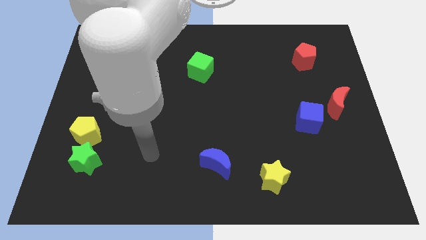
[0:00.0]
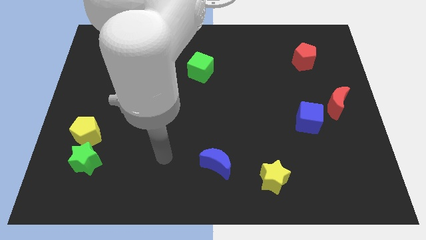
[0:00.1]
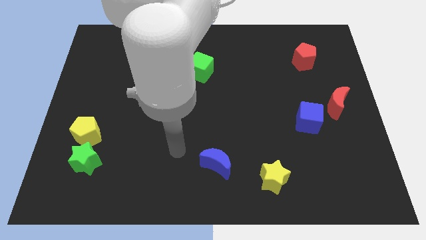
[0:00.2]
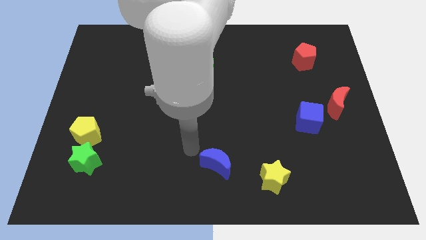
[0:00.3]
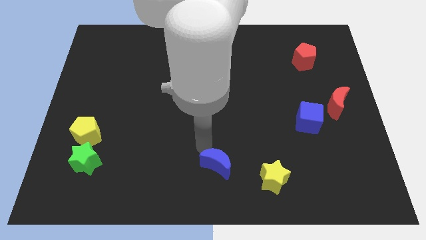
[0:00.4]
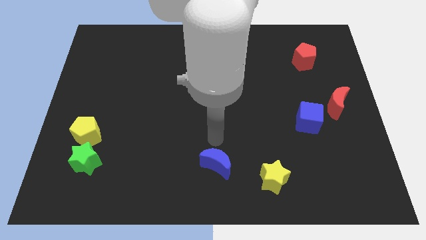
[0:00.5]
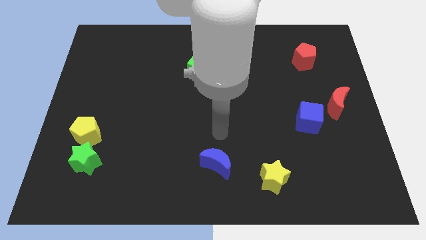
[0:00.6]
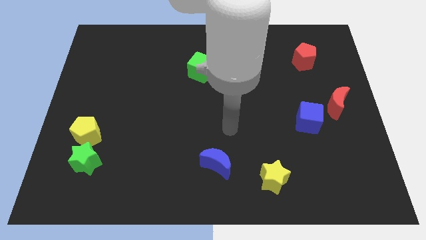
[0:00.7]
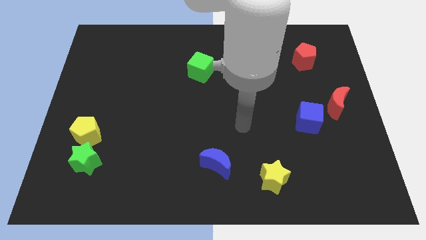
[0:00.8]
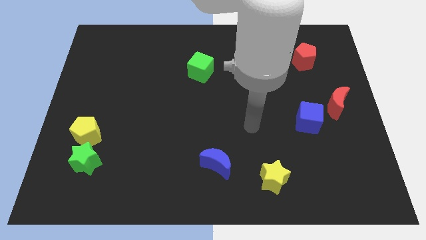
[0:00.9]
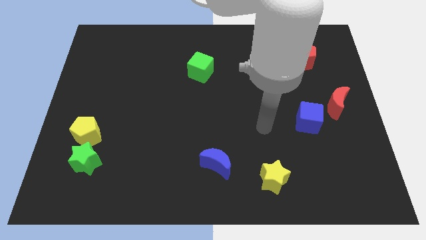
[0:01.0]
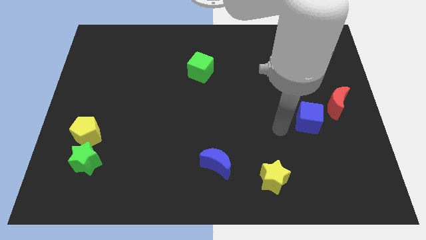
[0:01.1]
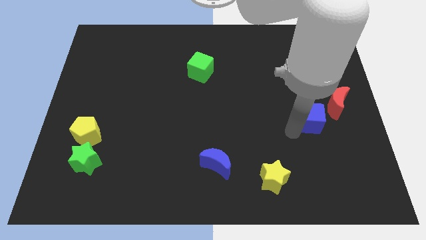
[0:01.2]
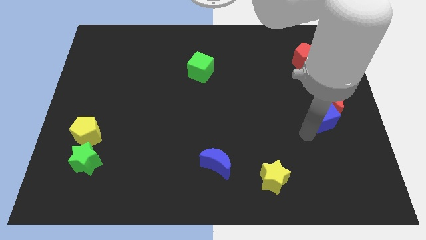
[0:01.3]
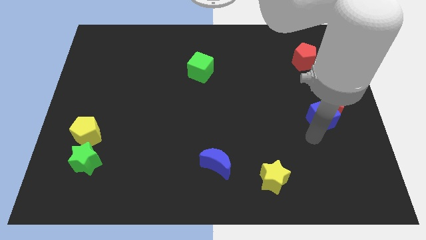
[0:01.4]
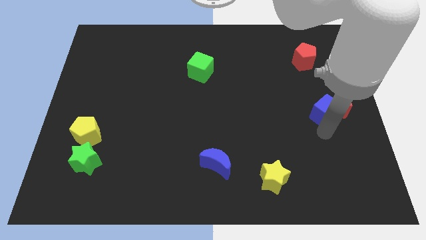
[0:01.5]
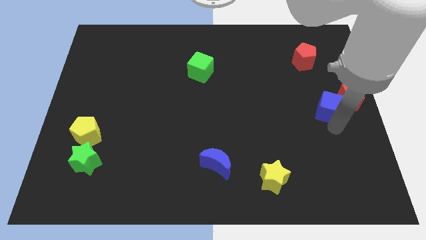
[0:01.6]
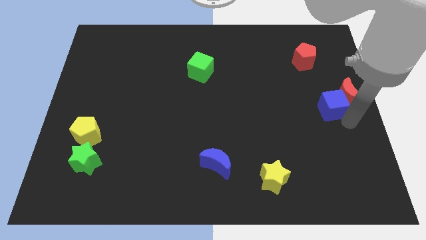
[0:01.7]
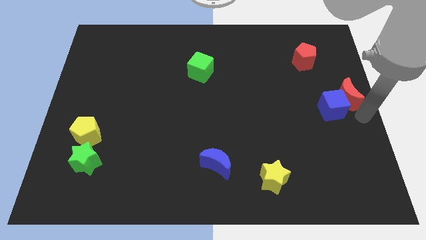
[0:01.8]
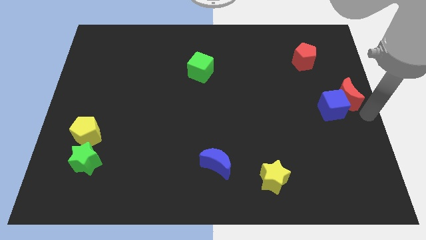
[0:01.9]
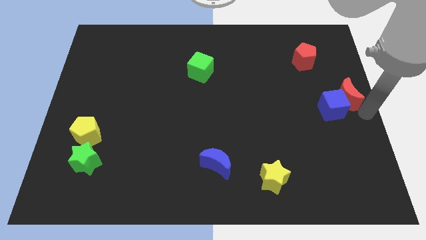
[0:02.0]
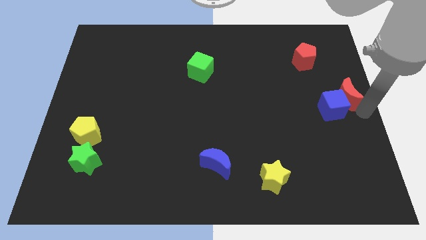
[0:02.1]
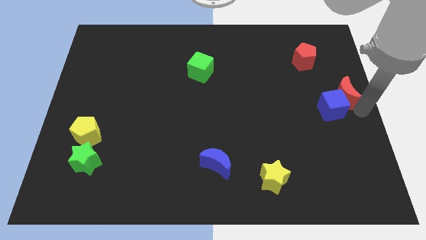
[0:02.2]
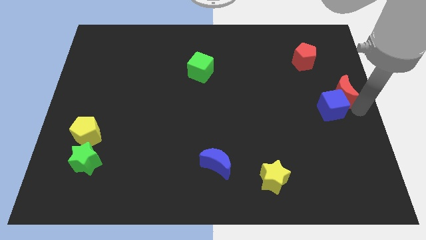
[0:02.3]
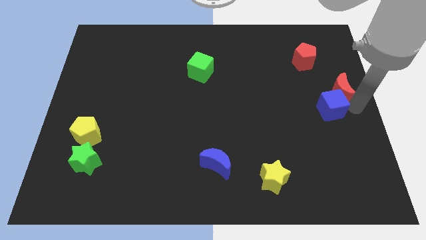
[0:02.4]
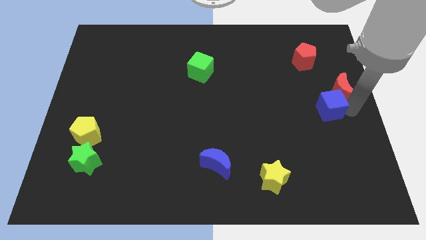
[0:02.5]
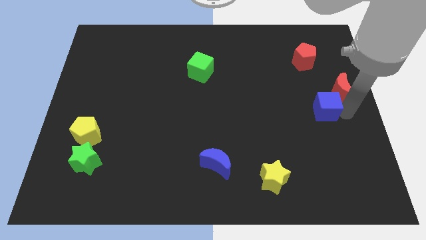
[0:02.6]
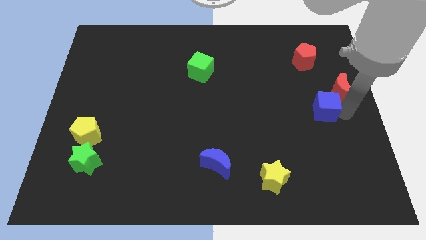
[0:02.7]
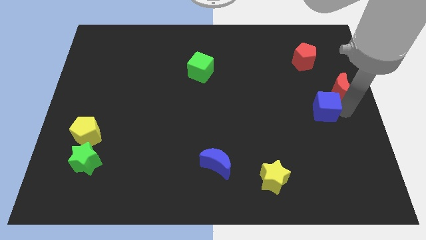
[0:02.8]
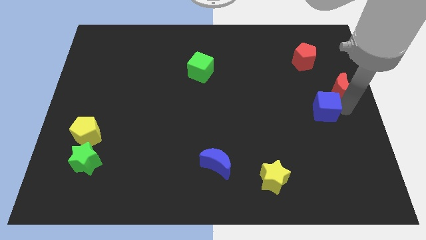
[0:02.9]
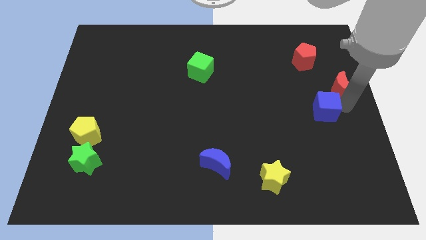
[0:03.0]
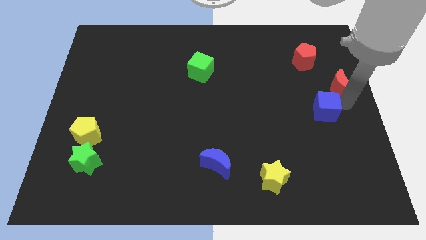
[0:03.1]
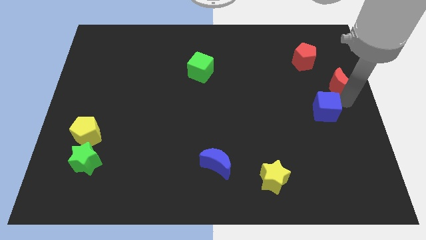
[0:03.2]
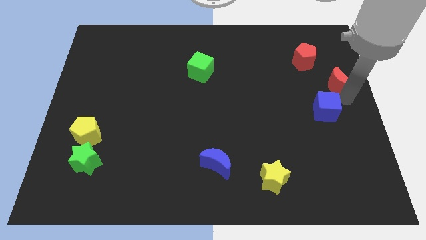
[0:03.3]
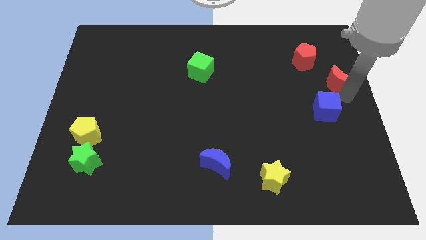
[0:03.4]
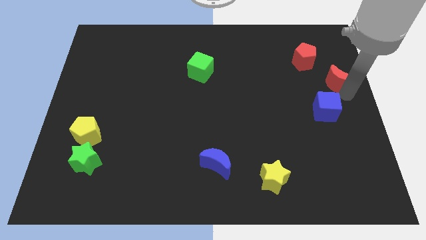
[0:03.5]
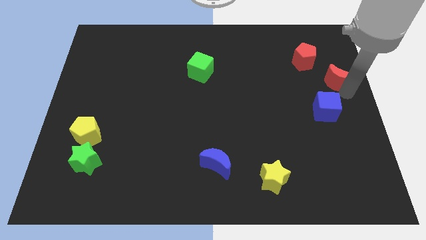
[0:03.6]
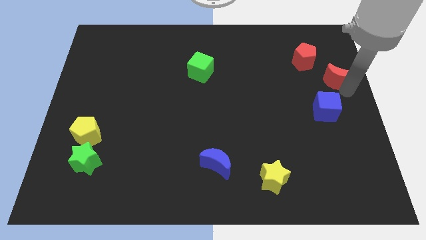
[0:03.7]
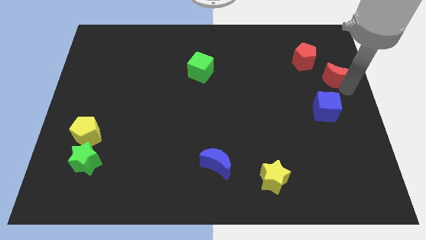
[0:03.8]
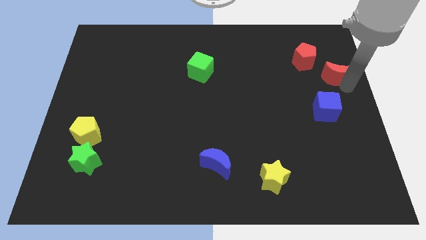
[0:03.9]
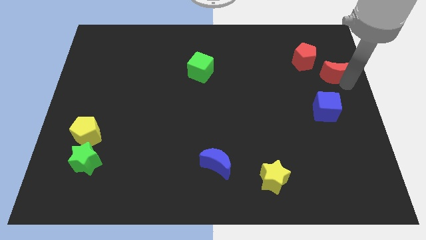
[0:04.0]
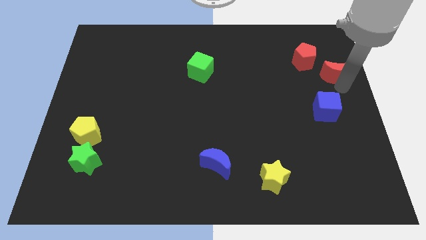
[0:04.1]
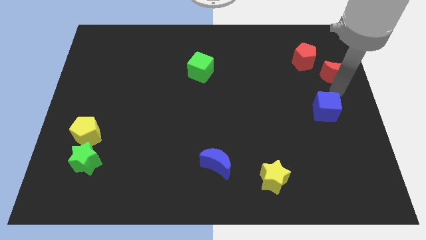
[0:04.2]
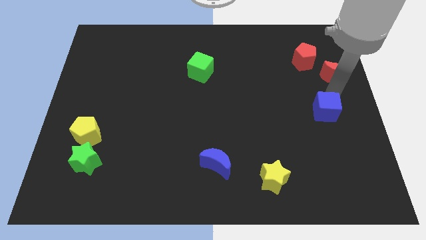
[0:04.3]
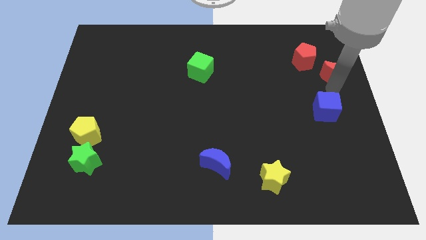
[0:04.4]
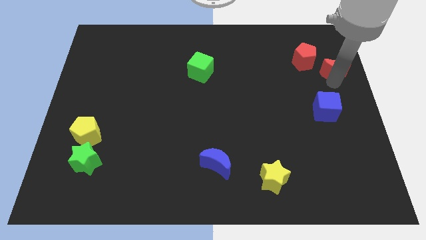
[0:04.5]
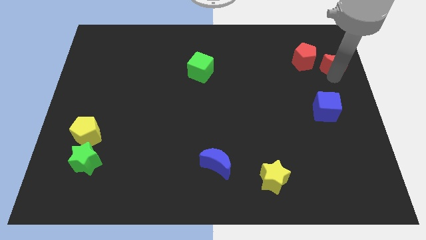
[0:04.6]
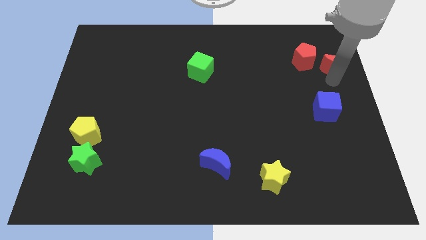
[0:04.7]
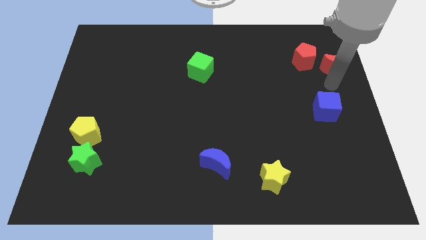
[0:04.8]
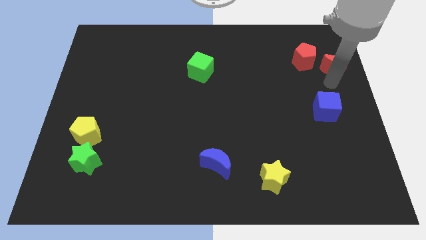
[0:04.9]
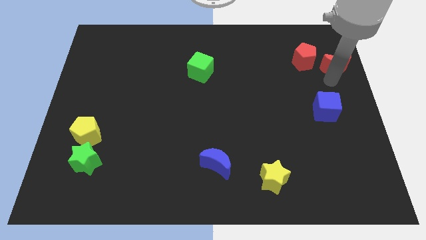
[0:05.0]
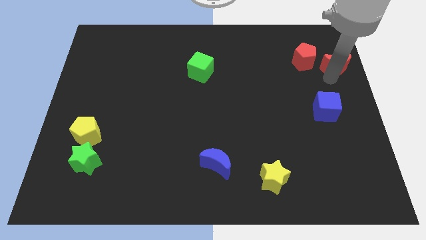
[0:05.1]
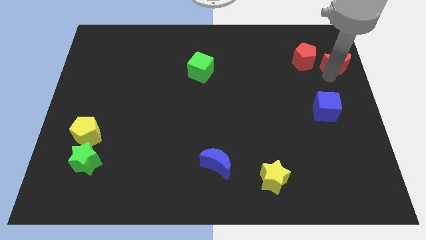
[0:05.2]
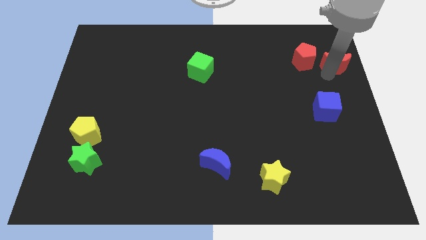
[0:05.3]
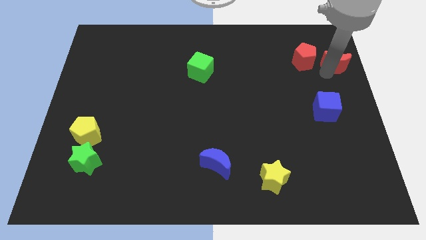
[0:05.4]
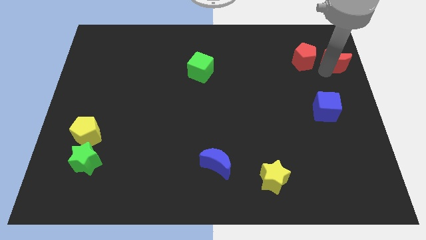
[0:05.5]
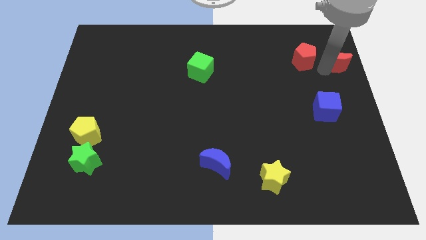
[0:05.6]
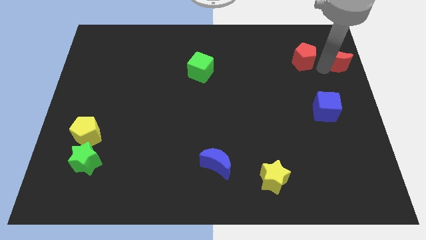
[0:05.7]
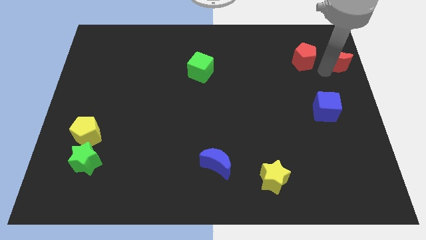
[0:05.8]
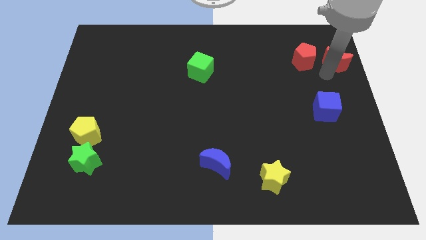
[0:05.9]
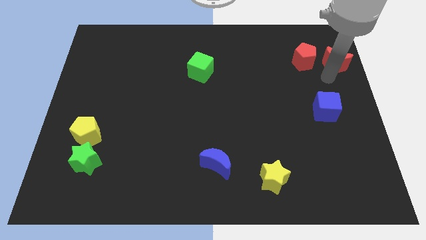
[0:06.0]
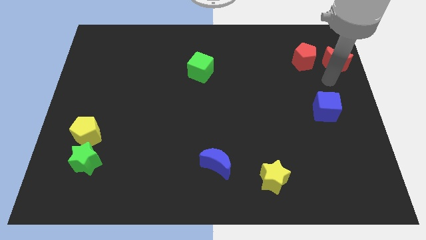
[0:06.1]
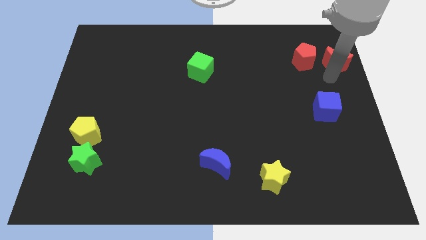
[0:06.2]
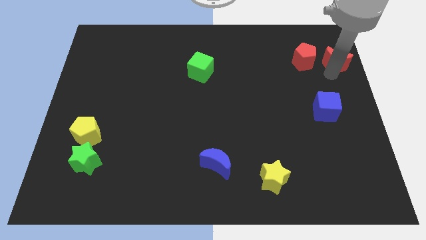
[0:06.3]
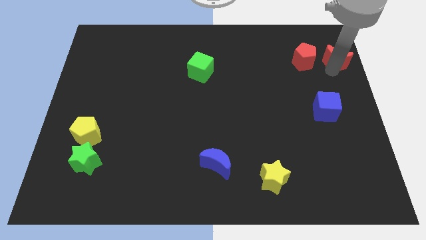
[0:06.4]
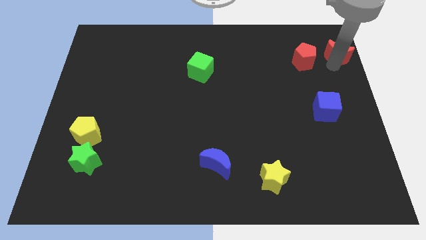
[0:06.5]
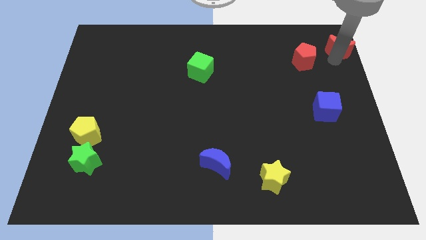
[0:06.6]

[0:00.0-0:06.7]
push the red moon to the top right
